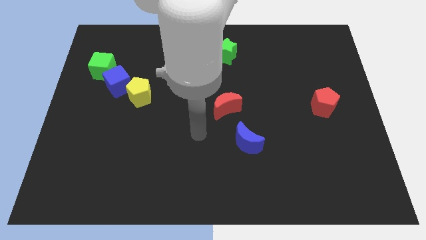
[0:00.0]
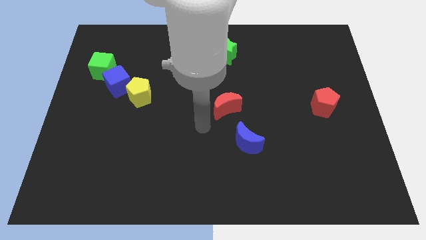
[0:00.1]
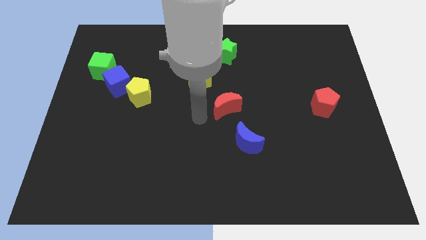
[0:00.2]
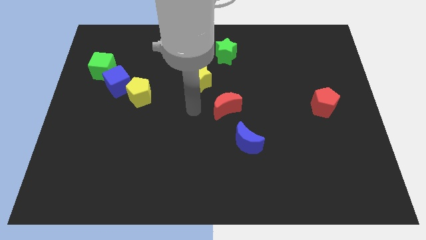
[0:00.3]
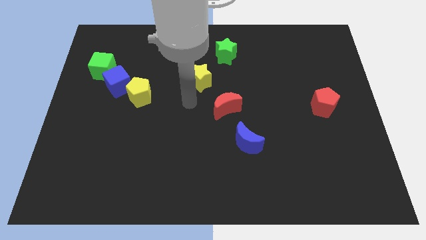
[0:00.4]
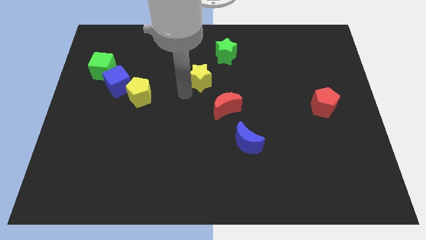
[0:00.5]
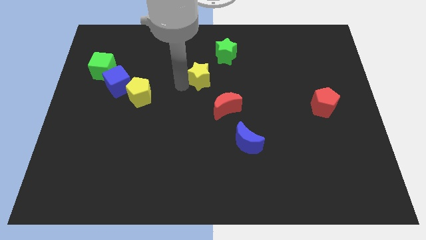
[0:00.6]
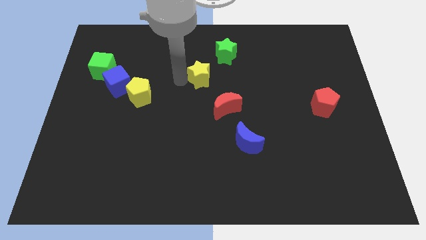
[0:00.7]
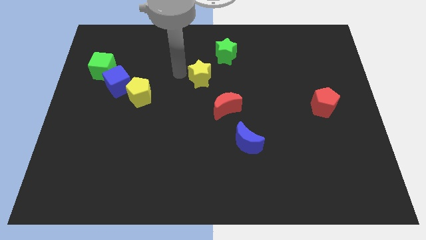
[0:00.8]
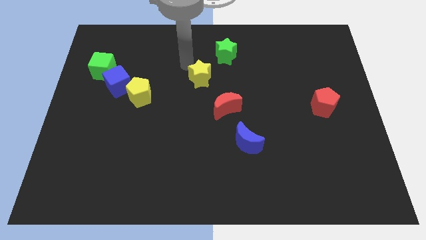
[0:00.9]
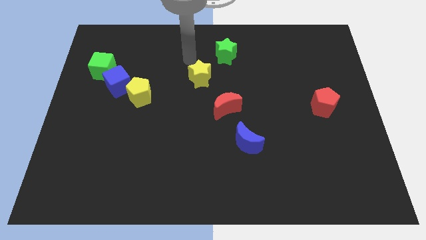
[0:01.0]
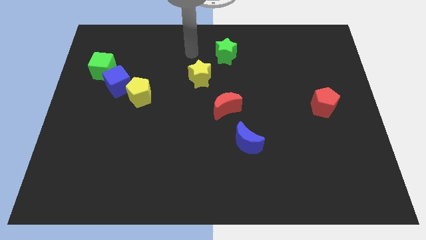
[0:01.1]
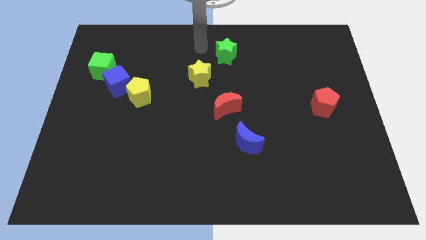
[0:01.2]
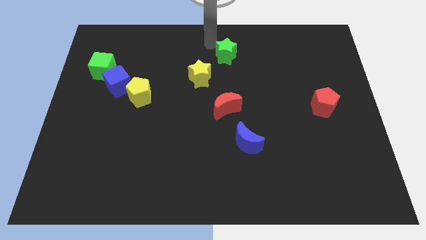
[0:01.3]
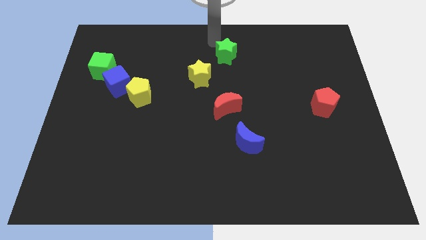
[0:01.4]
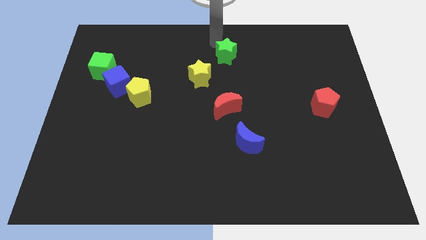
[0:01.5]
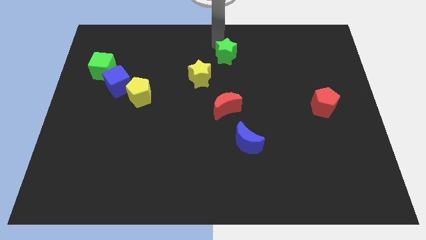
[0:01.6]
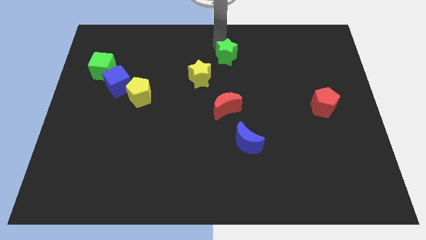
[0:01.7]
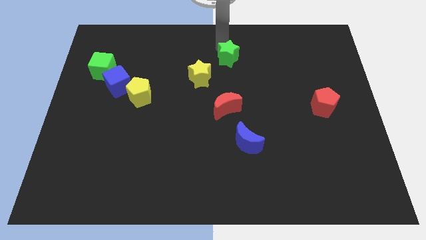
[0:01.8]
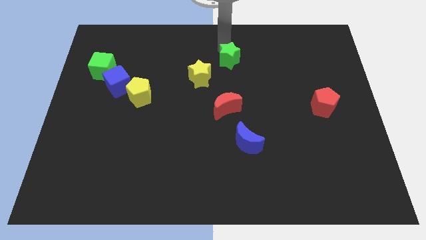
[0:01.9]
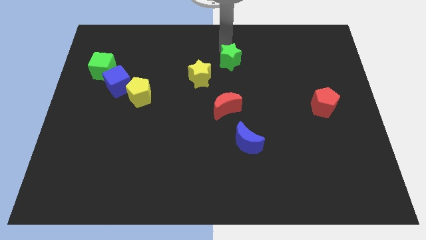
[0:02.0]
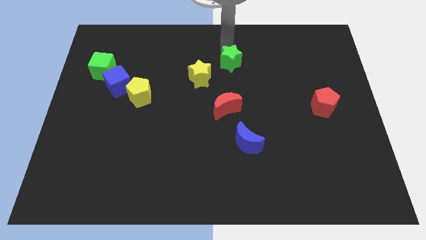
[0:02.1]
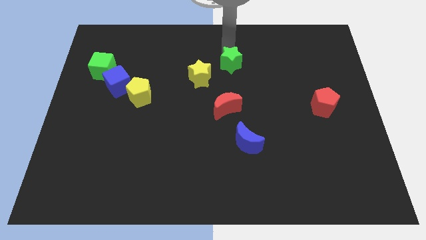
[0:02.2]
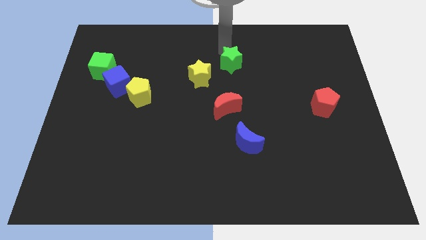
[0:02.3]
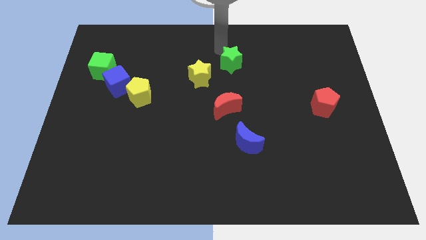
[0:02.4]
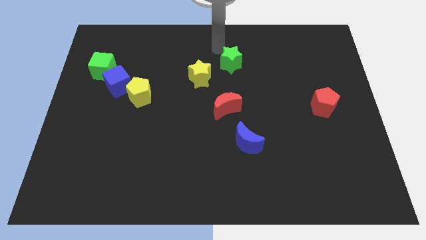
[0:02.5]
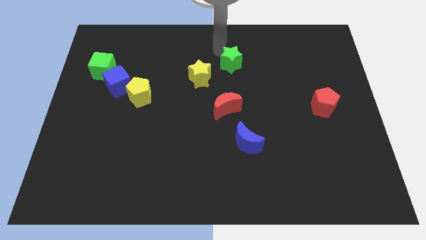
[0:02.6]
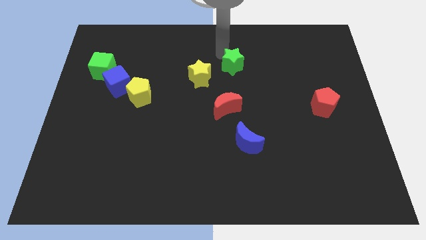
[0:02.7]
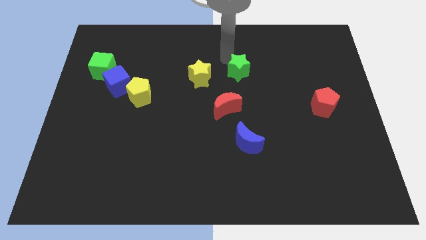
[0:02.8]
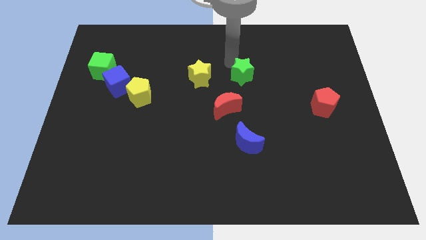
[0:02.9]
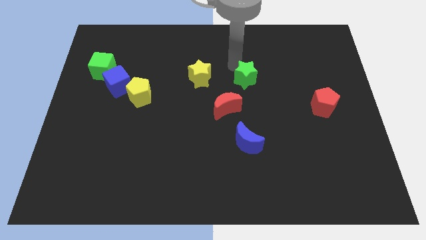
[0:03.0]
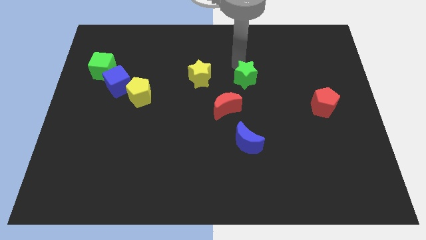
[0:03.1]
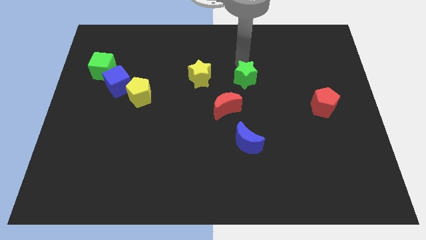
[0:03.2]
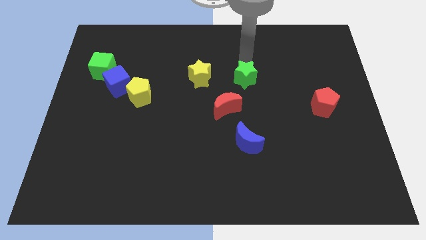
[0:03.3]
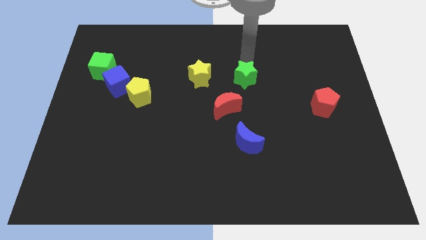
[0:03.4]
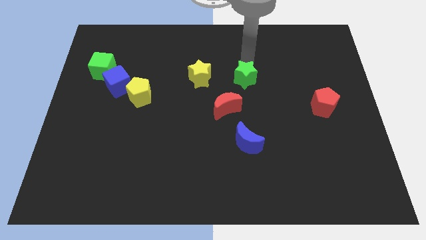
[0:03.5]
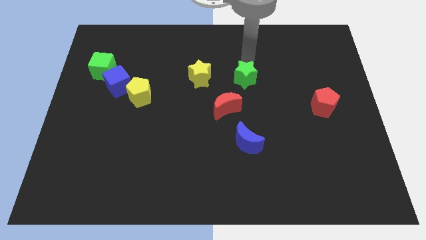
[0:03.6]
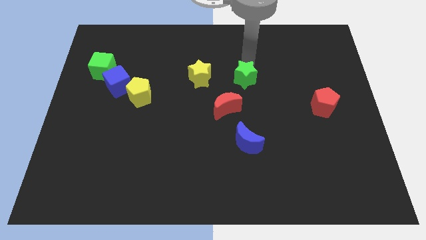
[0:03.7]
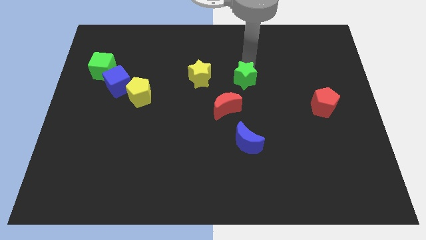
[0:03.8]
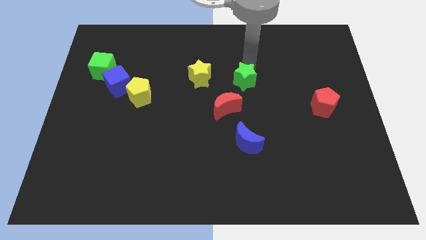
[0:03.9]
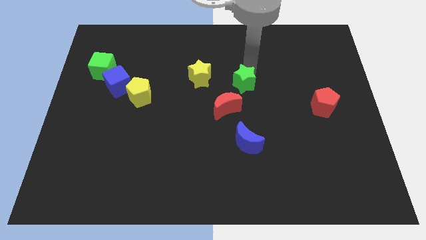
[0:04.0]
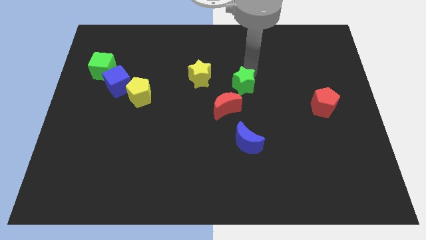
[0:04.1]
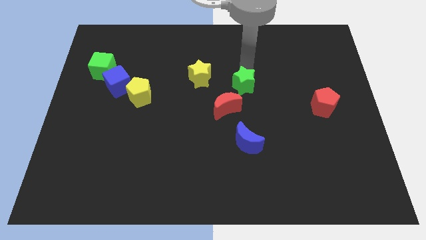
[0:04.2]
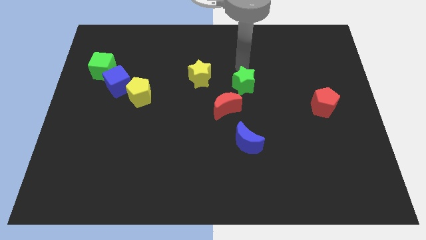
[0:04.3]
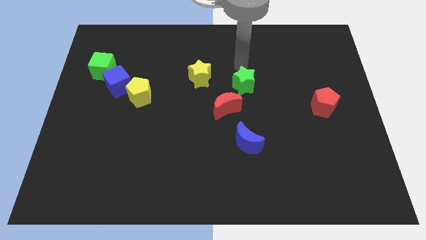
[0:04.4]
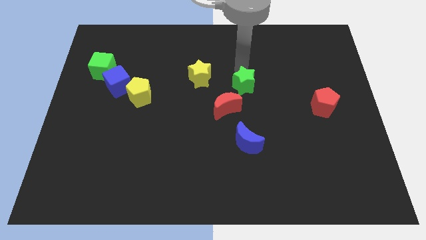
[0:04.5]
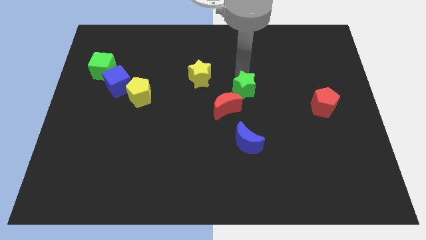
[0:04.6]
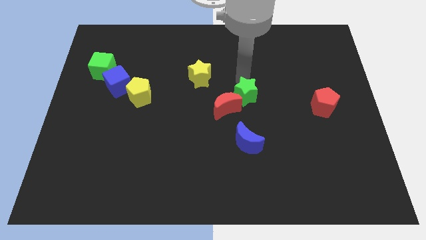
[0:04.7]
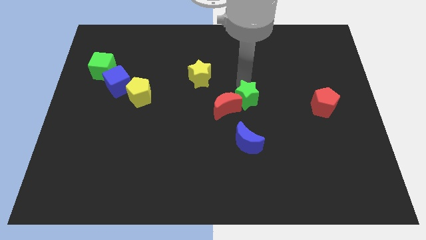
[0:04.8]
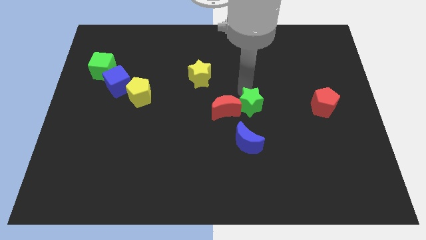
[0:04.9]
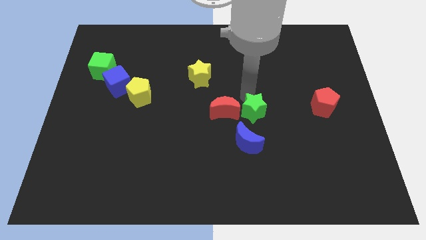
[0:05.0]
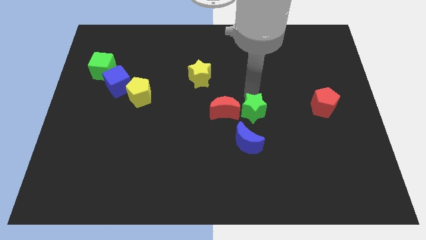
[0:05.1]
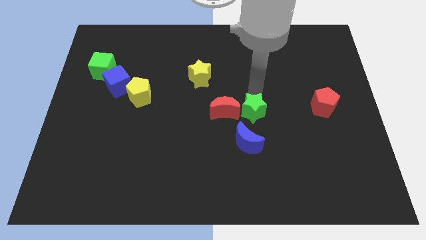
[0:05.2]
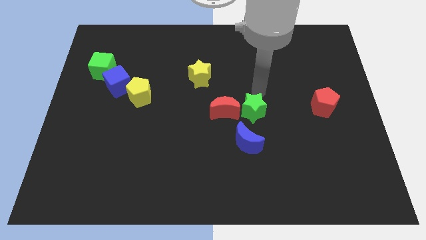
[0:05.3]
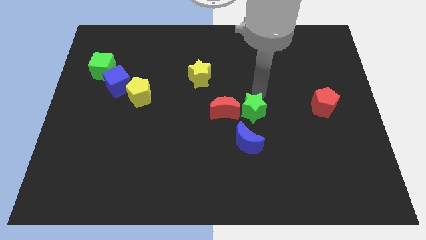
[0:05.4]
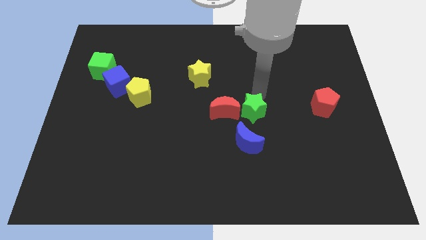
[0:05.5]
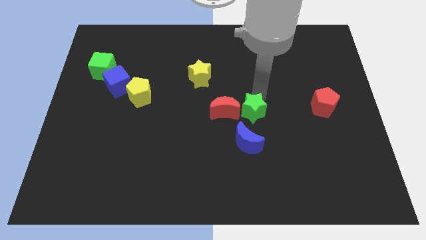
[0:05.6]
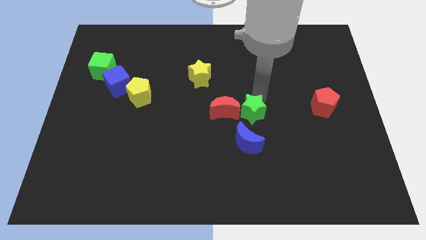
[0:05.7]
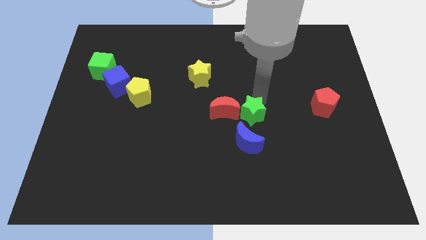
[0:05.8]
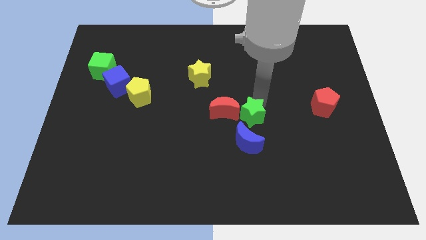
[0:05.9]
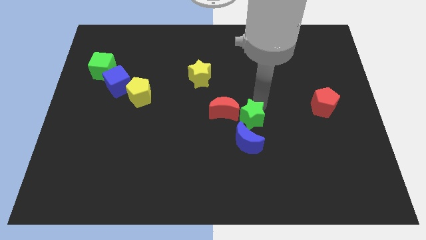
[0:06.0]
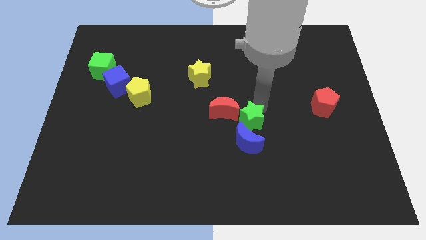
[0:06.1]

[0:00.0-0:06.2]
slide the green star close to the blue moon

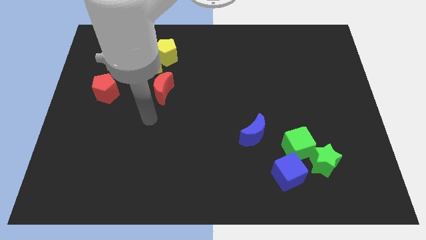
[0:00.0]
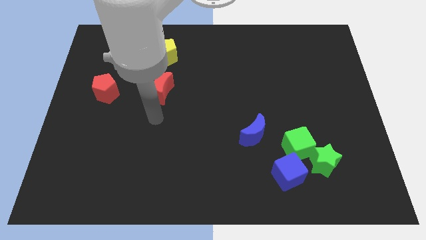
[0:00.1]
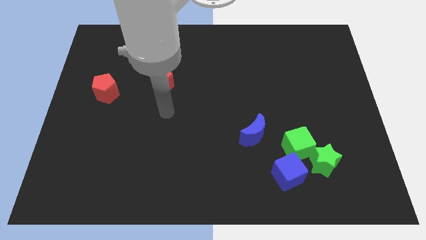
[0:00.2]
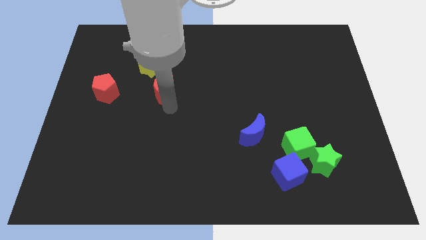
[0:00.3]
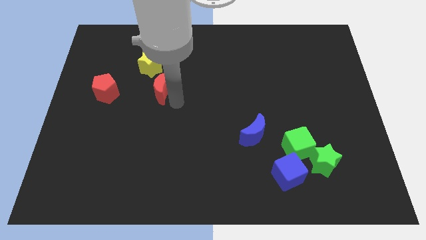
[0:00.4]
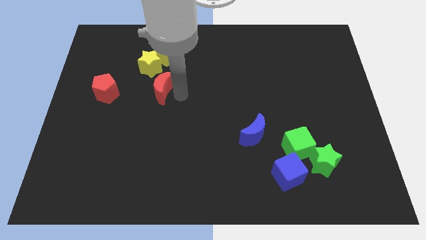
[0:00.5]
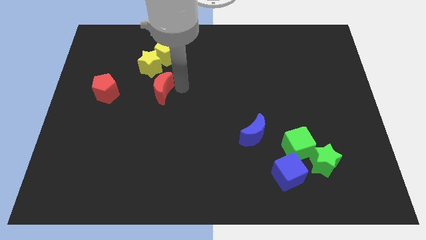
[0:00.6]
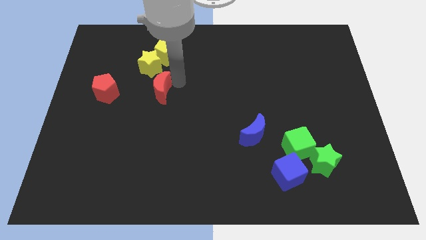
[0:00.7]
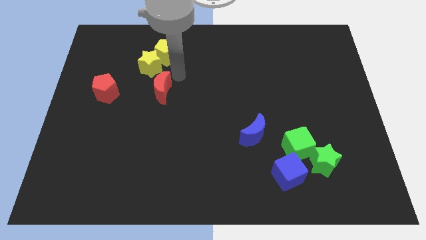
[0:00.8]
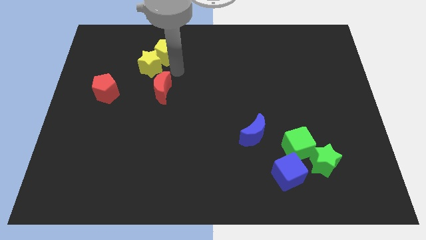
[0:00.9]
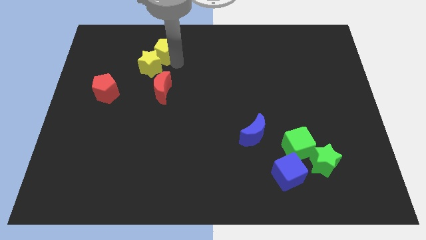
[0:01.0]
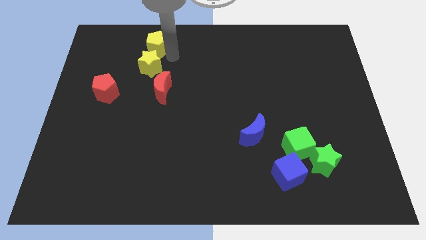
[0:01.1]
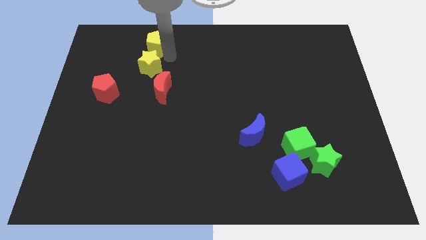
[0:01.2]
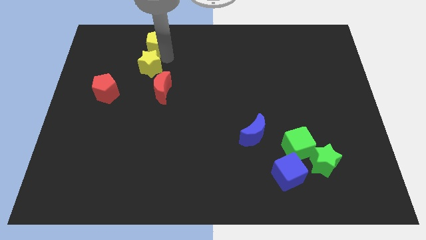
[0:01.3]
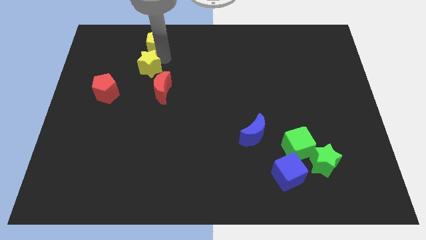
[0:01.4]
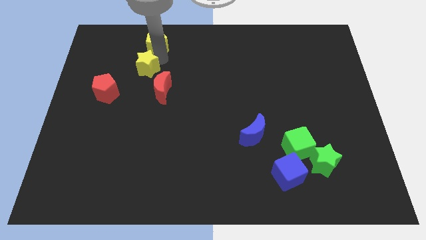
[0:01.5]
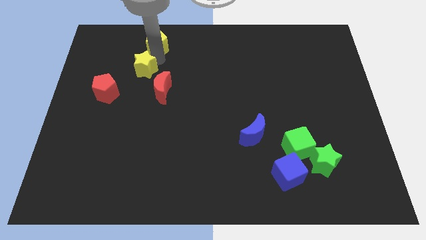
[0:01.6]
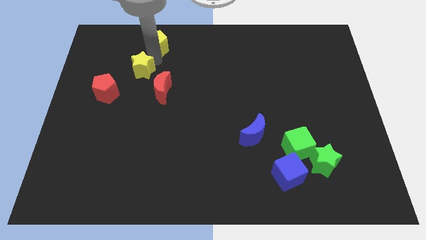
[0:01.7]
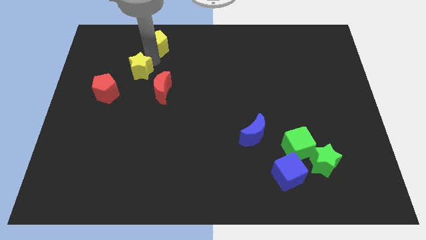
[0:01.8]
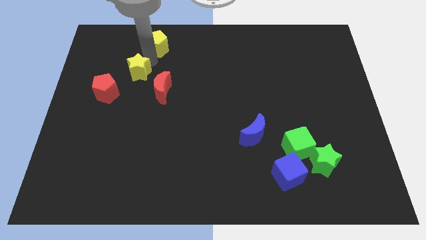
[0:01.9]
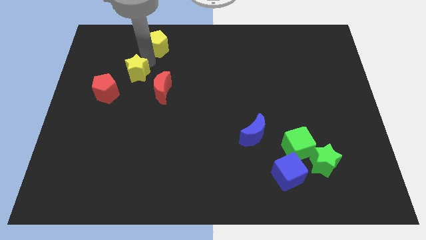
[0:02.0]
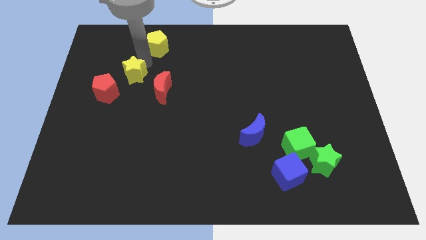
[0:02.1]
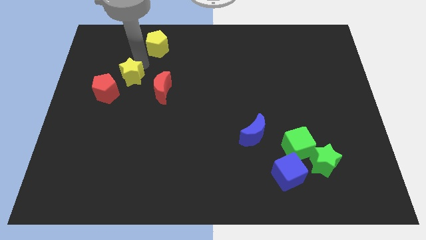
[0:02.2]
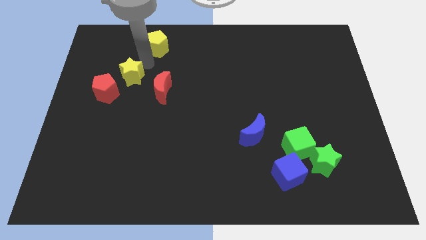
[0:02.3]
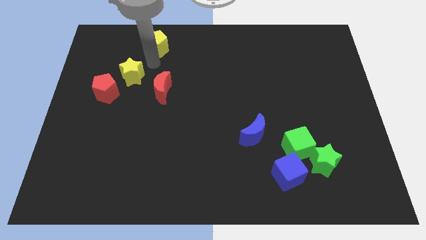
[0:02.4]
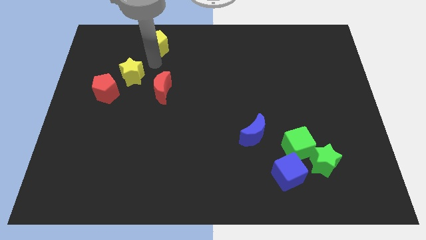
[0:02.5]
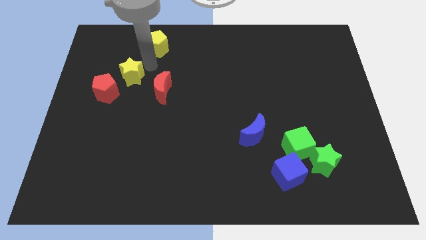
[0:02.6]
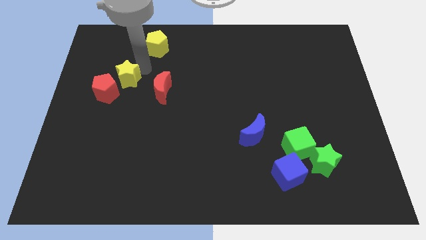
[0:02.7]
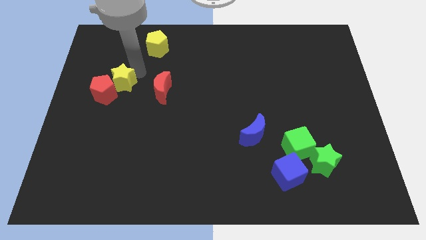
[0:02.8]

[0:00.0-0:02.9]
move the yellow star close to the red pentagon
